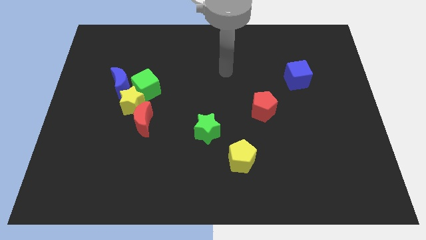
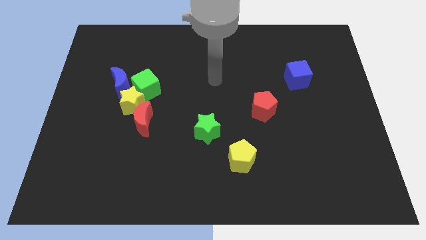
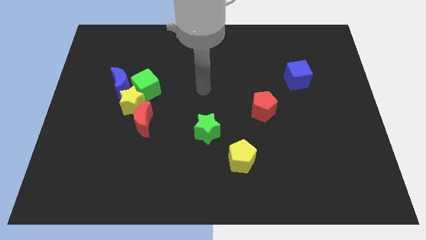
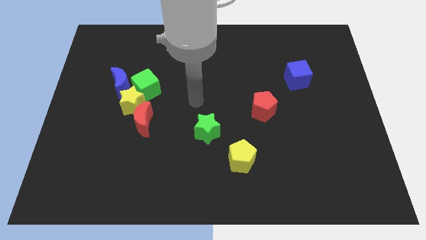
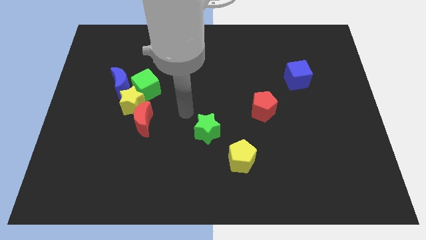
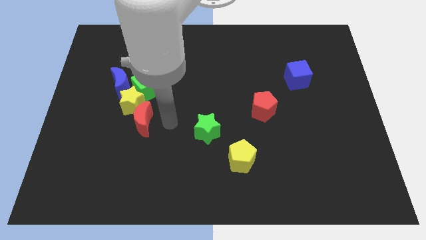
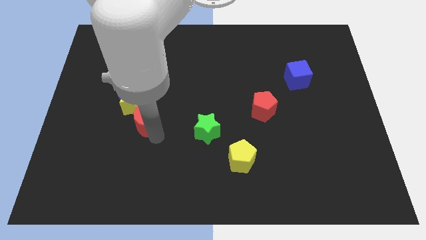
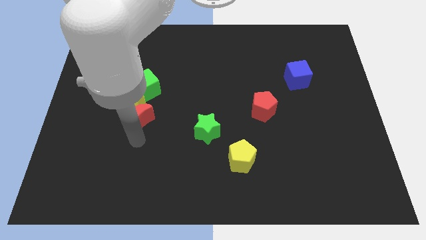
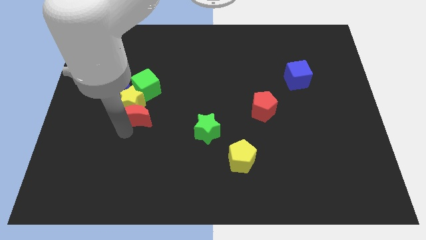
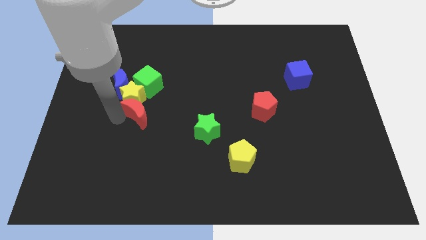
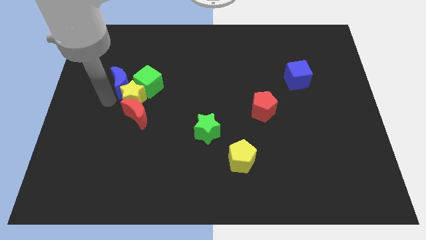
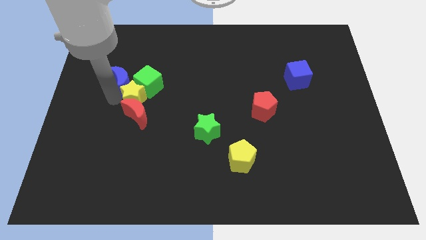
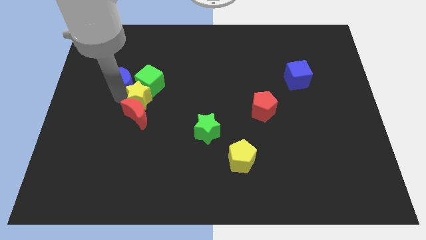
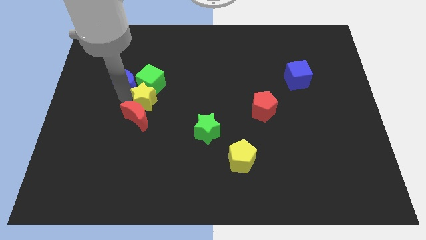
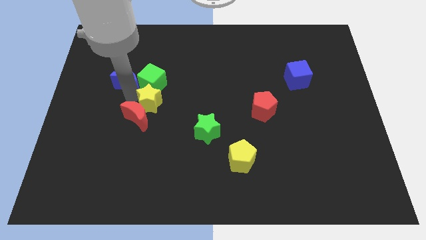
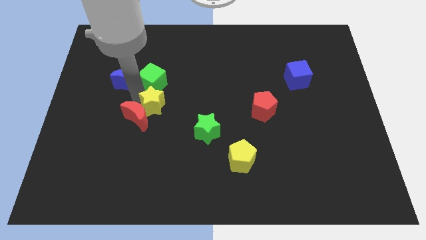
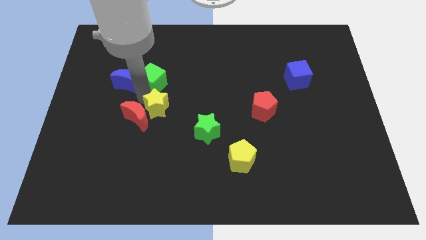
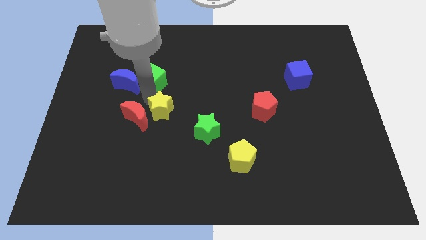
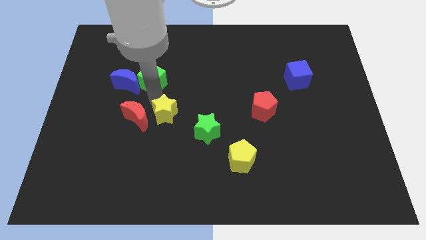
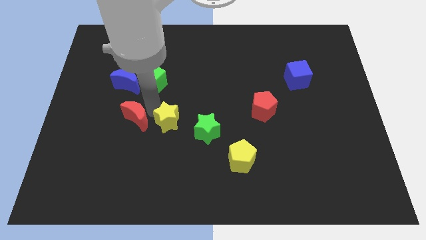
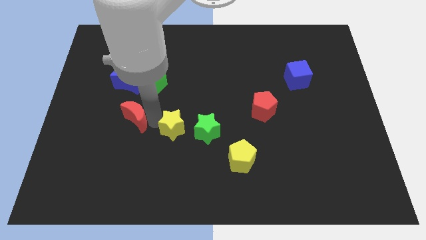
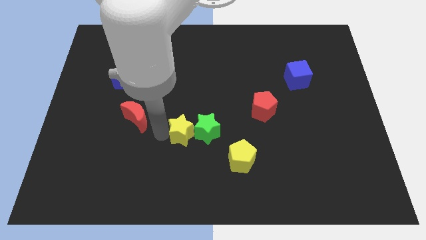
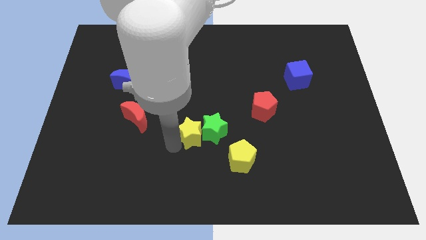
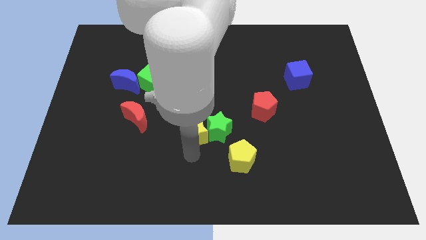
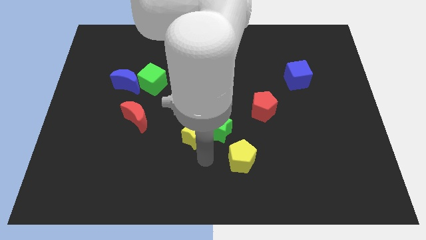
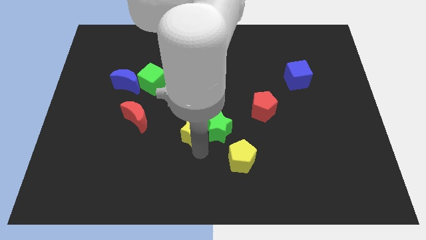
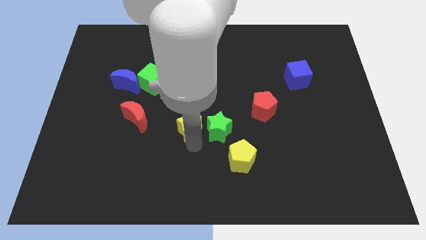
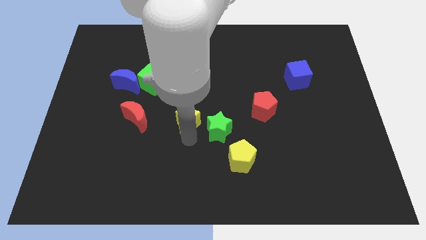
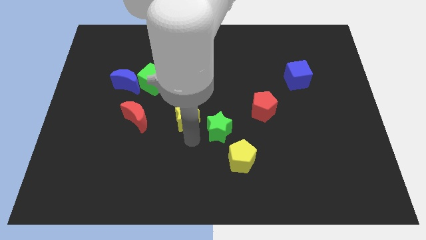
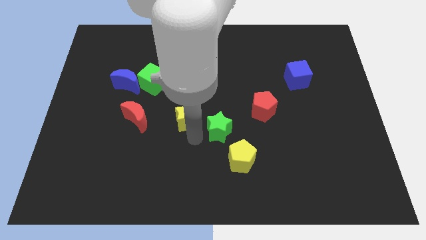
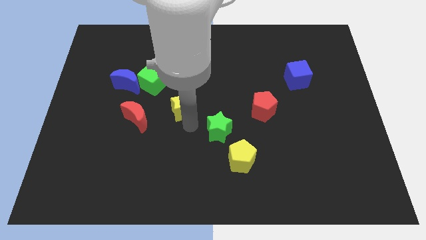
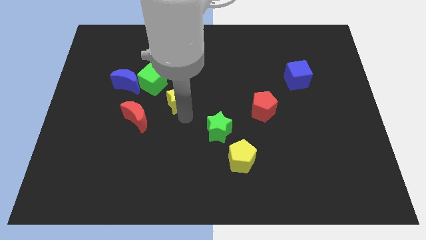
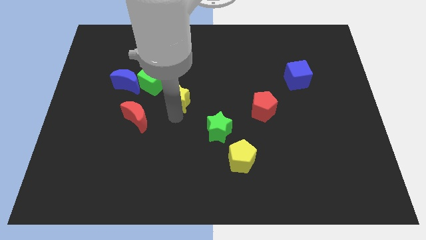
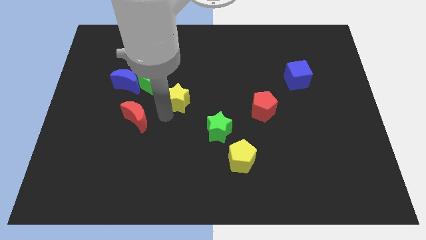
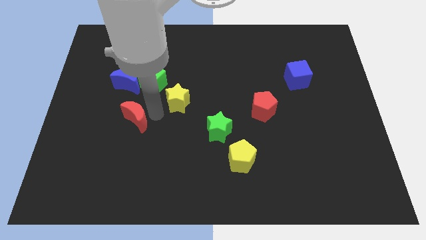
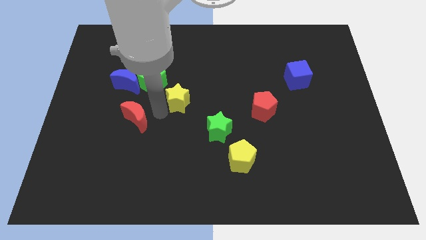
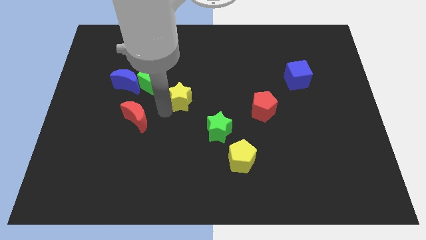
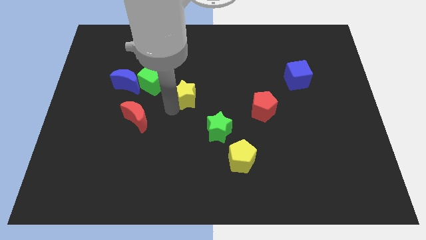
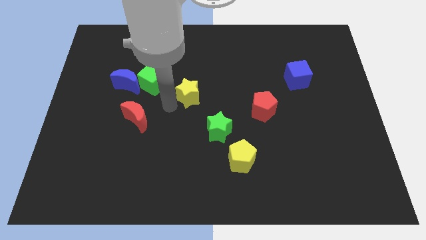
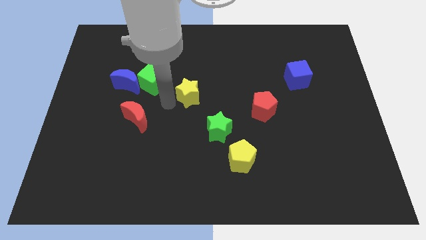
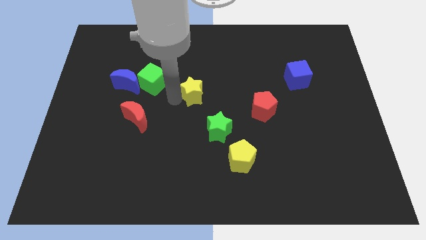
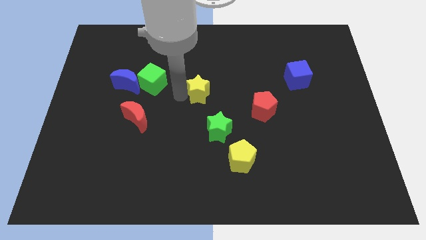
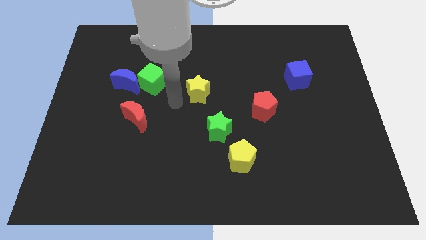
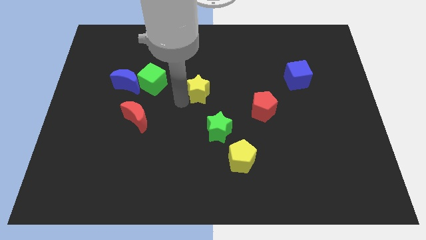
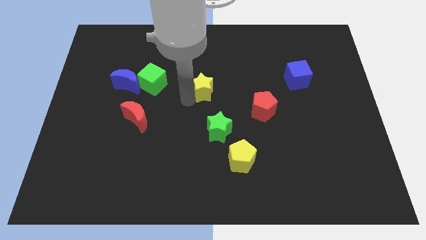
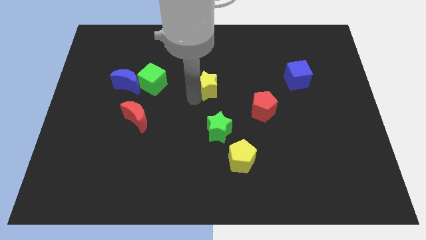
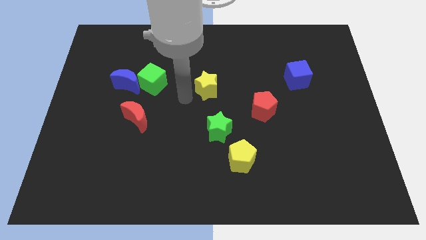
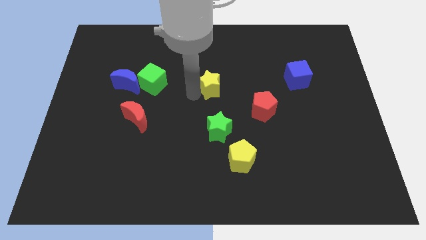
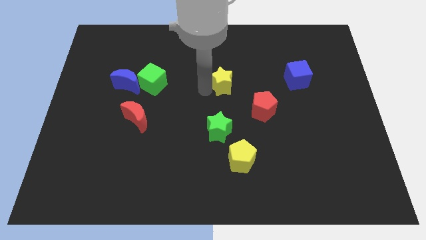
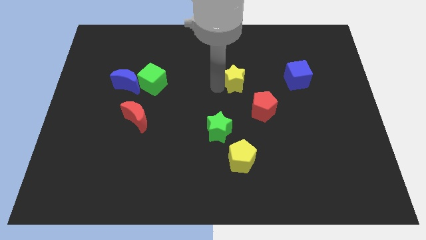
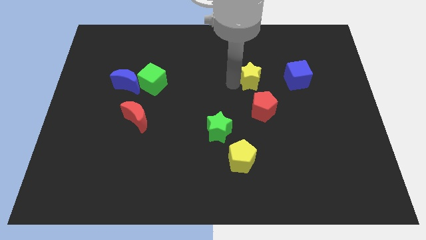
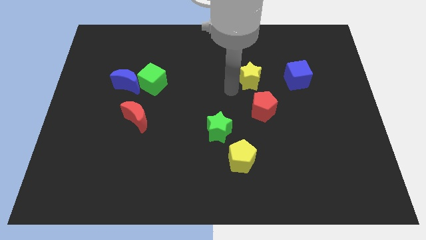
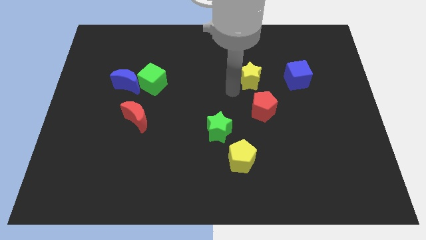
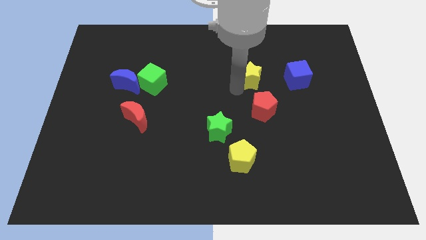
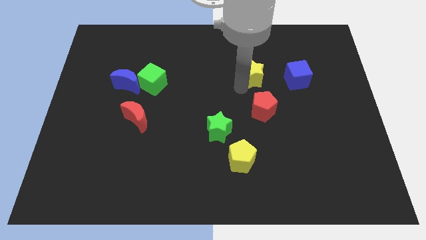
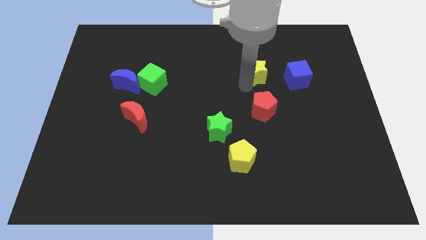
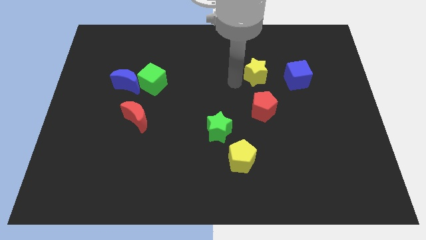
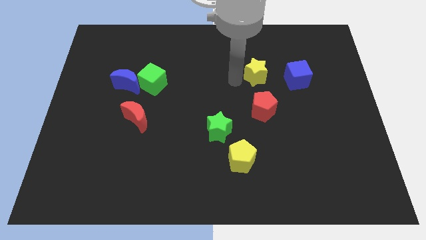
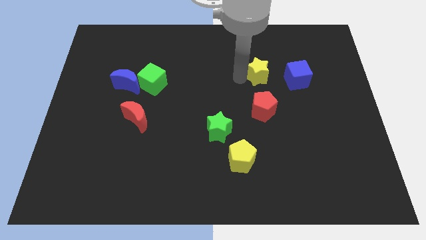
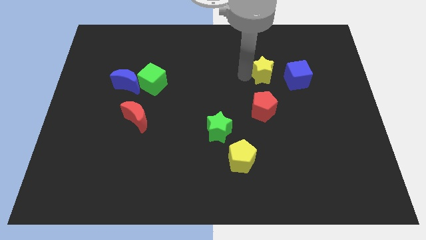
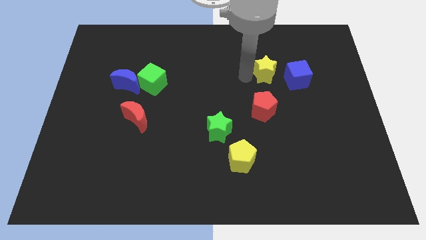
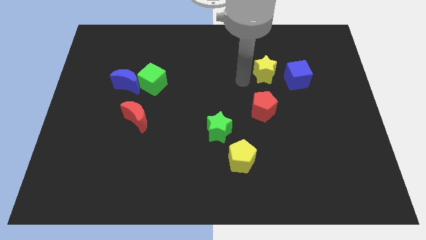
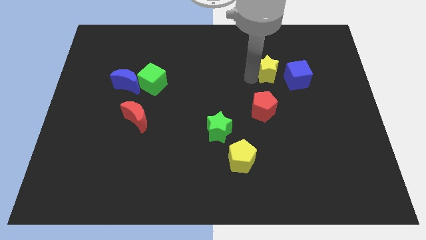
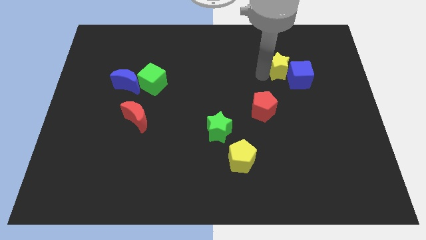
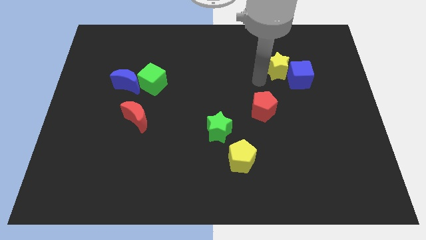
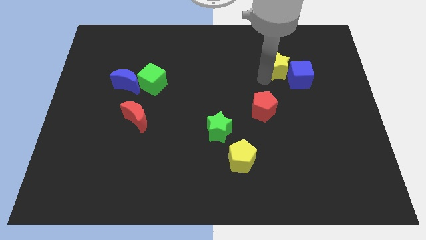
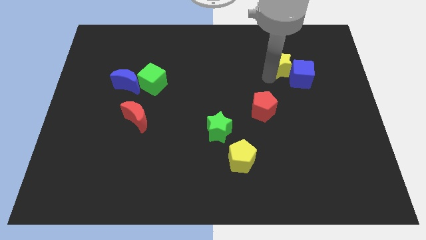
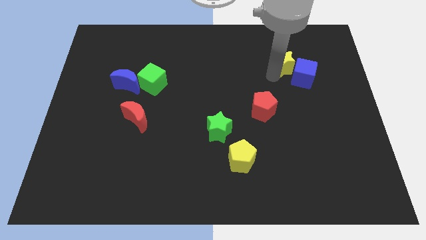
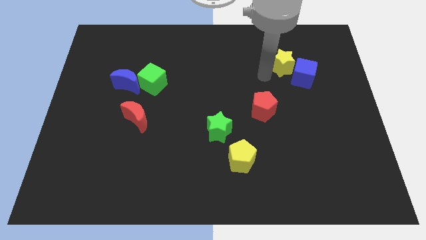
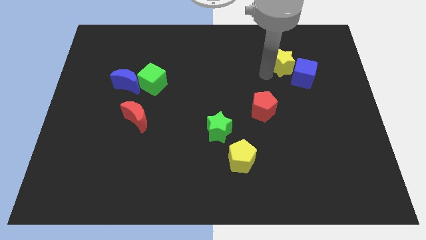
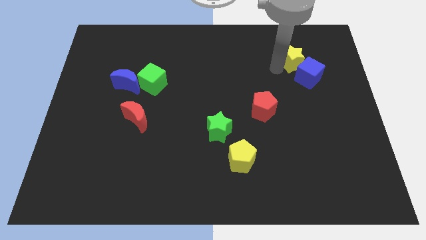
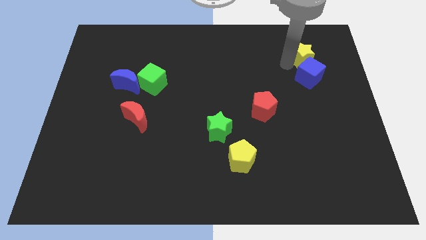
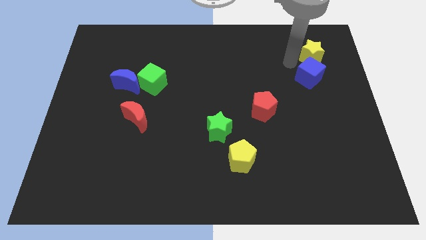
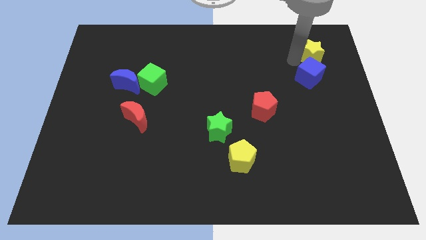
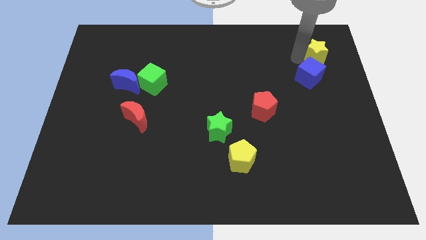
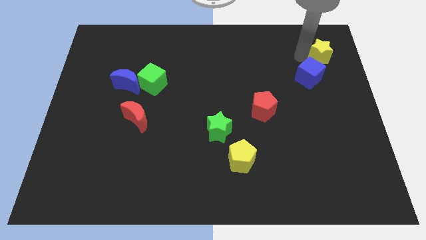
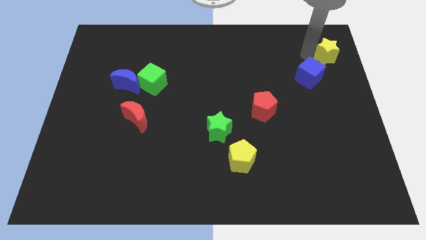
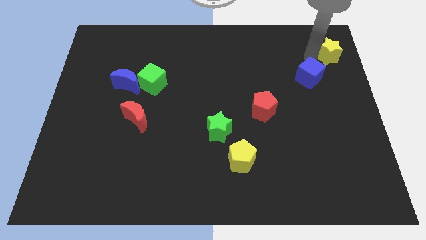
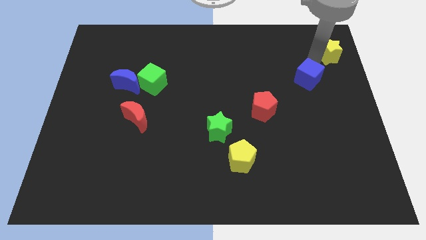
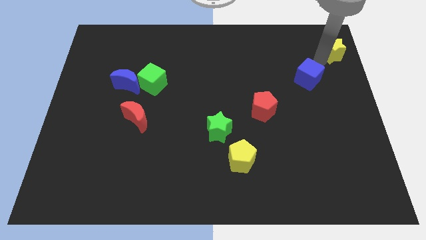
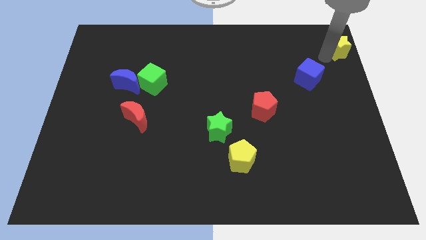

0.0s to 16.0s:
push the yellow star to the upper right corner
